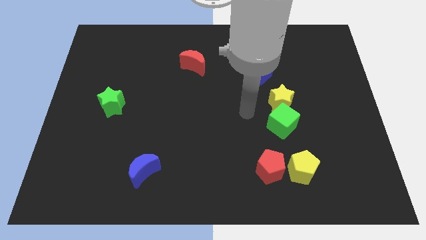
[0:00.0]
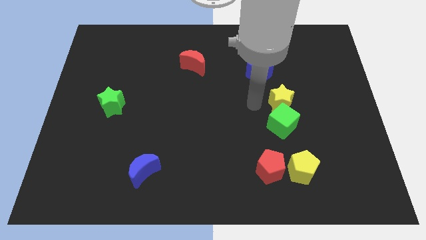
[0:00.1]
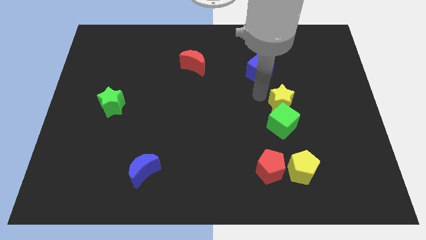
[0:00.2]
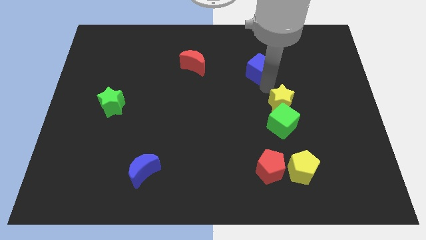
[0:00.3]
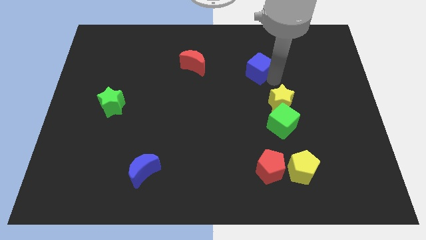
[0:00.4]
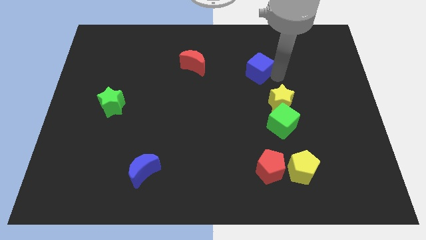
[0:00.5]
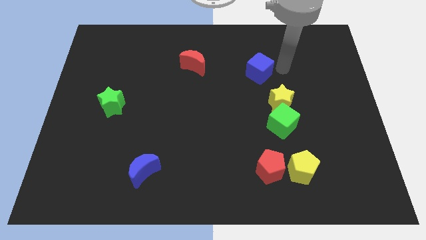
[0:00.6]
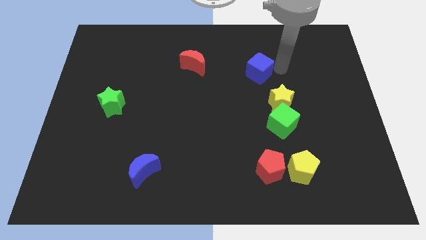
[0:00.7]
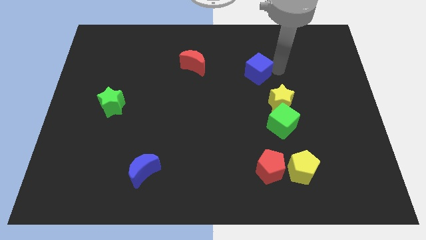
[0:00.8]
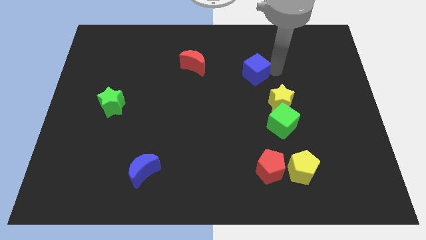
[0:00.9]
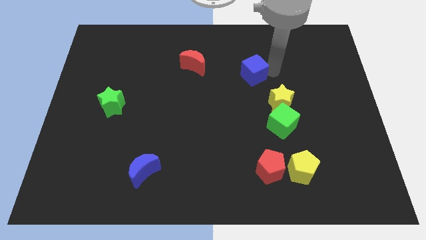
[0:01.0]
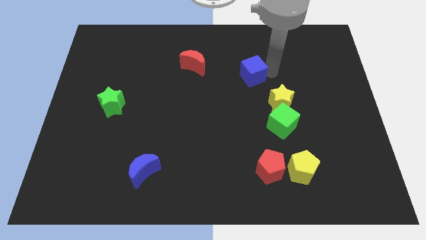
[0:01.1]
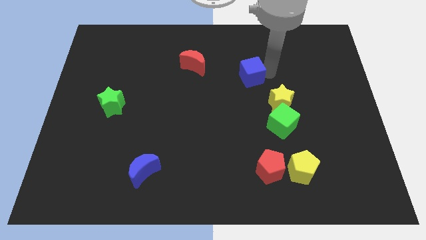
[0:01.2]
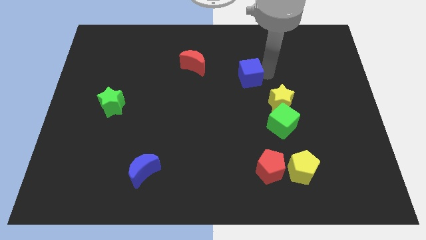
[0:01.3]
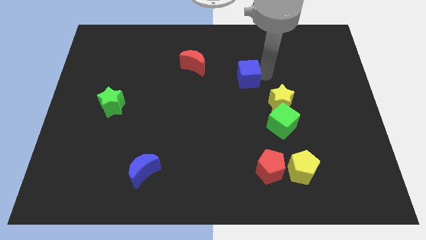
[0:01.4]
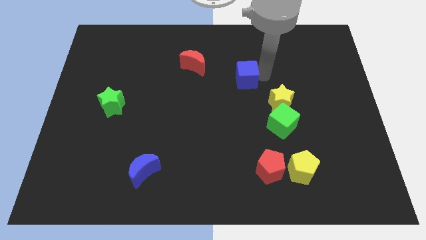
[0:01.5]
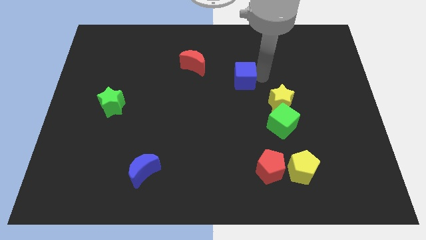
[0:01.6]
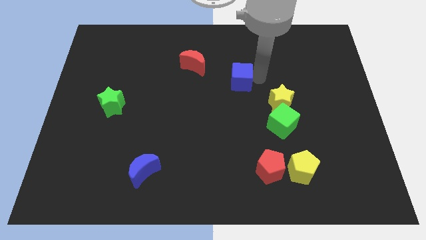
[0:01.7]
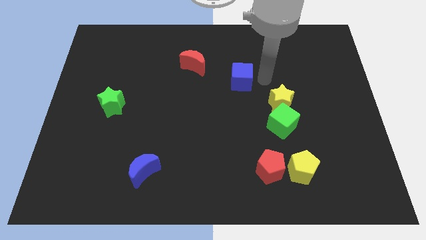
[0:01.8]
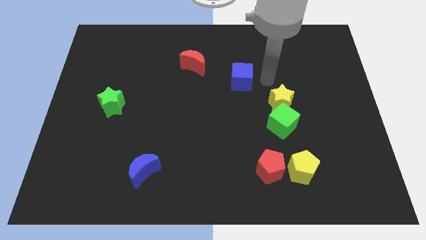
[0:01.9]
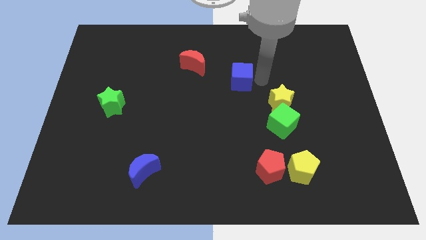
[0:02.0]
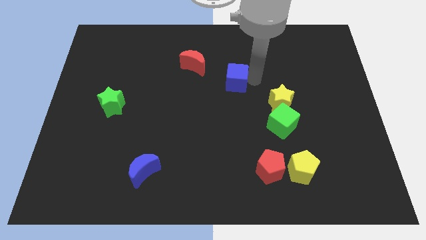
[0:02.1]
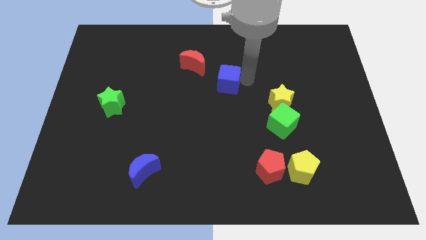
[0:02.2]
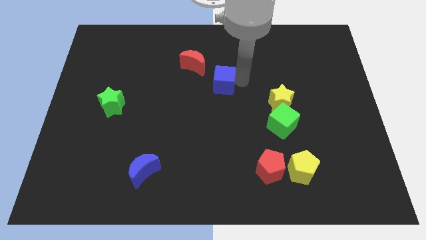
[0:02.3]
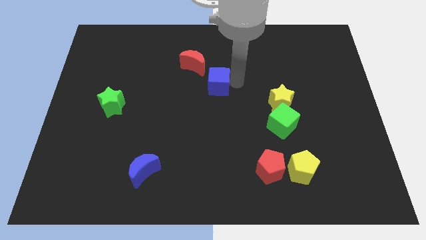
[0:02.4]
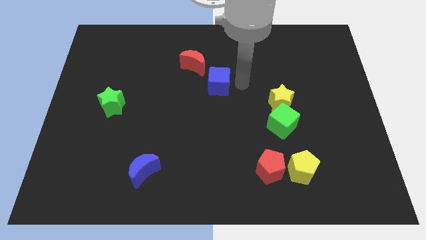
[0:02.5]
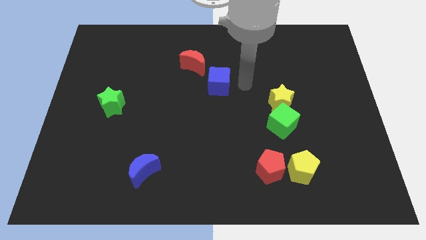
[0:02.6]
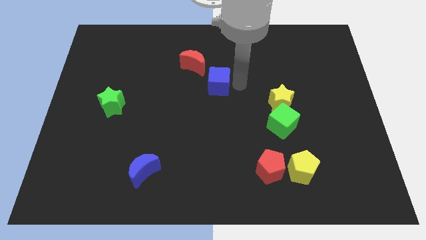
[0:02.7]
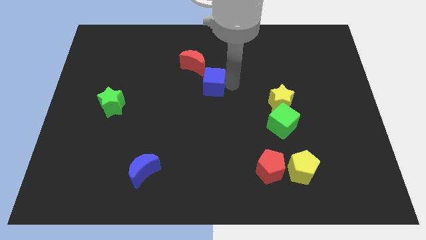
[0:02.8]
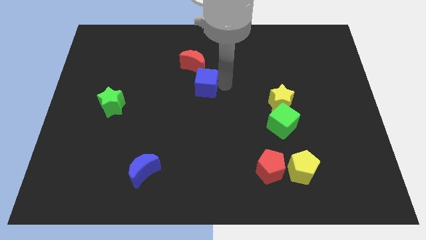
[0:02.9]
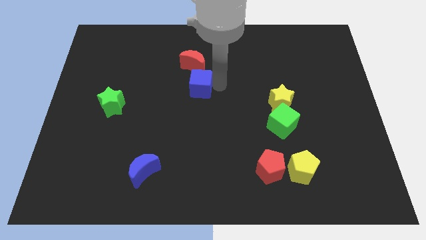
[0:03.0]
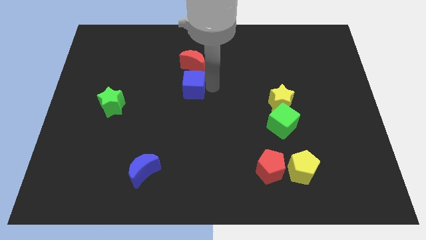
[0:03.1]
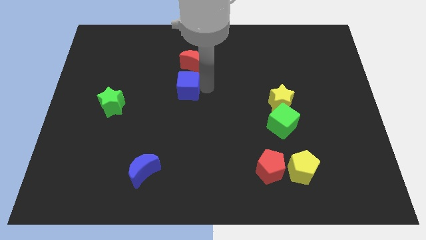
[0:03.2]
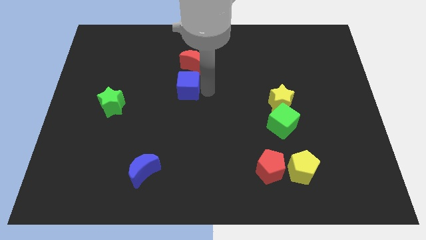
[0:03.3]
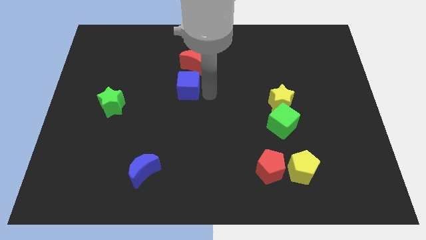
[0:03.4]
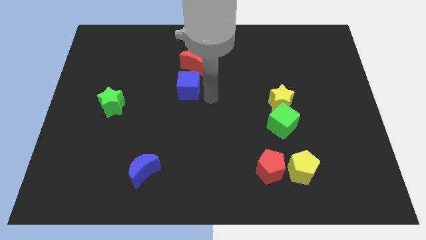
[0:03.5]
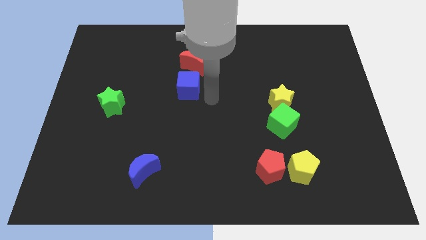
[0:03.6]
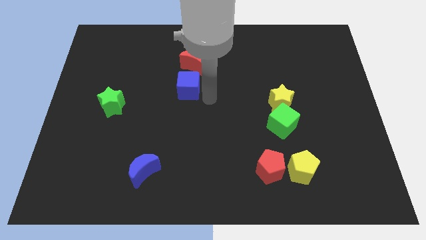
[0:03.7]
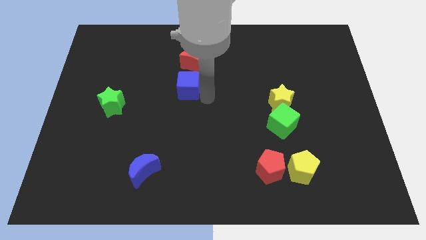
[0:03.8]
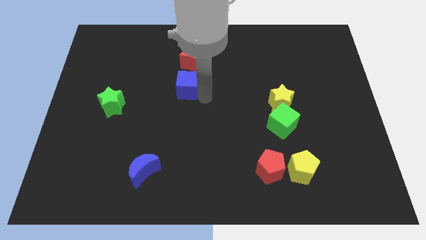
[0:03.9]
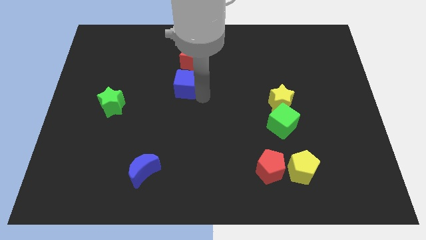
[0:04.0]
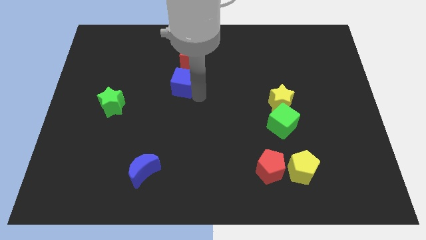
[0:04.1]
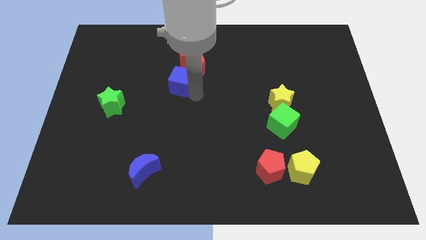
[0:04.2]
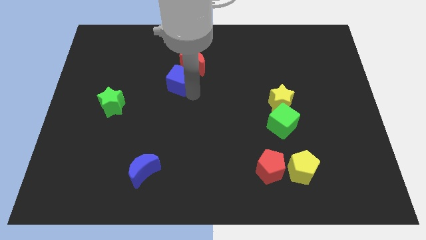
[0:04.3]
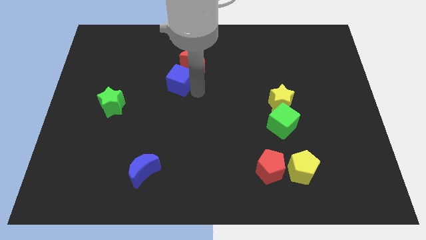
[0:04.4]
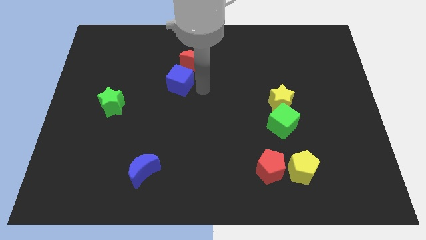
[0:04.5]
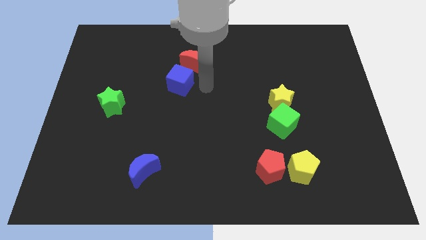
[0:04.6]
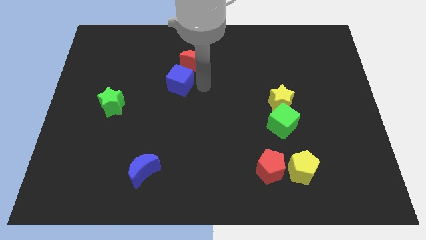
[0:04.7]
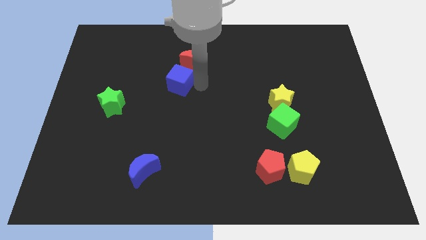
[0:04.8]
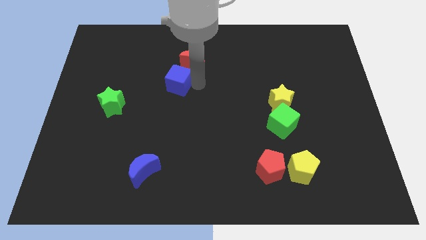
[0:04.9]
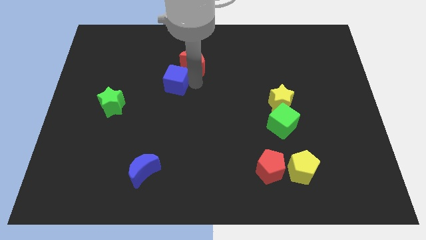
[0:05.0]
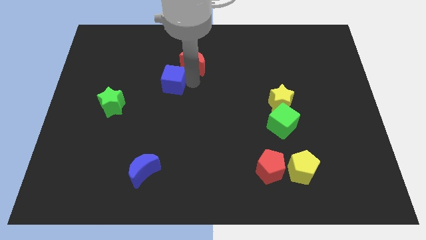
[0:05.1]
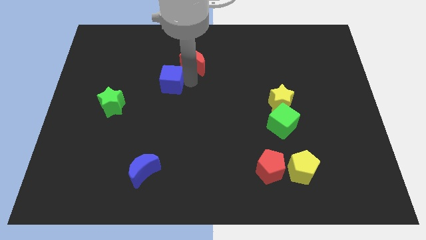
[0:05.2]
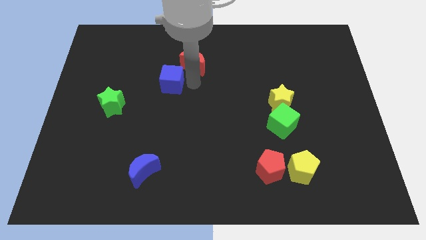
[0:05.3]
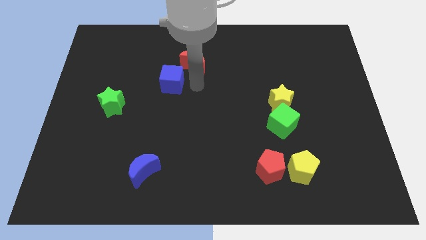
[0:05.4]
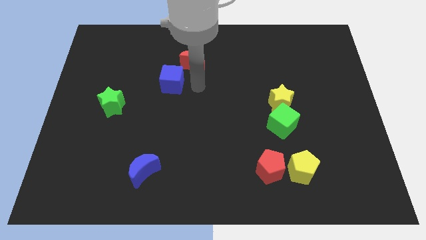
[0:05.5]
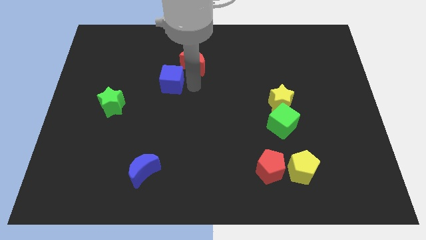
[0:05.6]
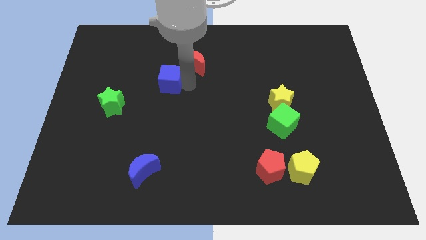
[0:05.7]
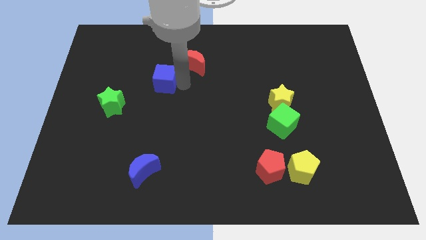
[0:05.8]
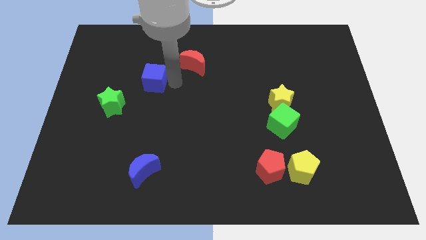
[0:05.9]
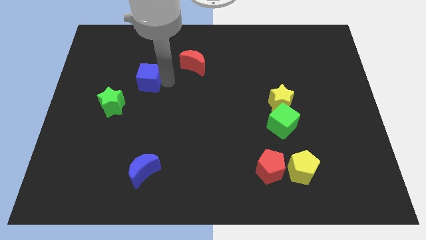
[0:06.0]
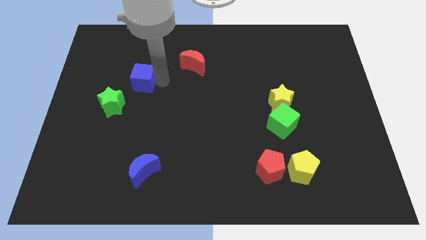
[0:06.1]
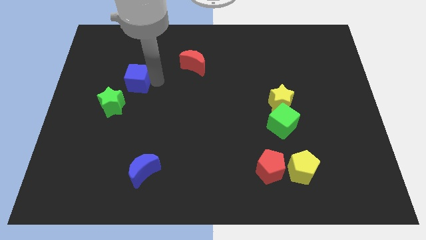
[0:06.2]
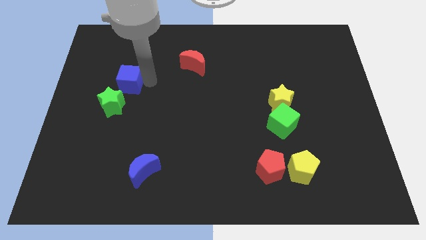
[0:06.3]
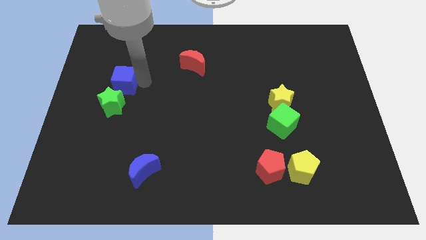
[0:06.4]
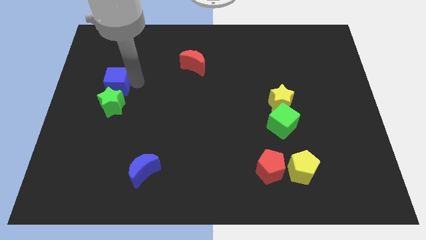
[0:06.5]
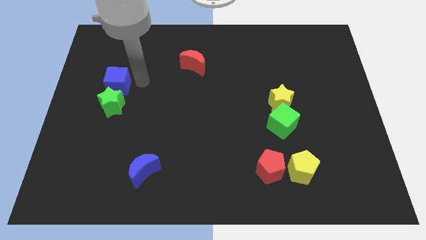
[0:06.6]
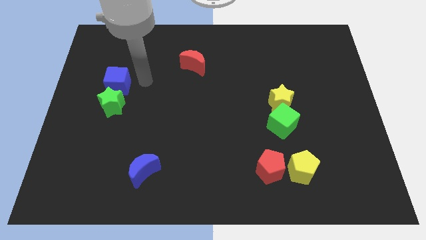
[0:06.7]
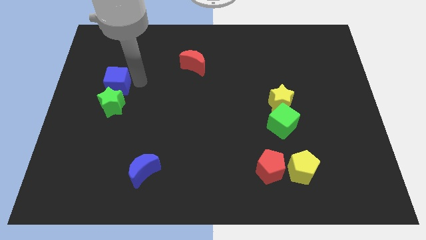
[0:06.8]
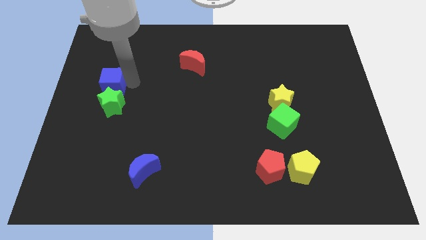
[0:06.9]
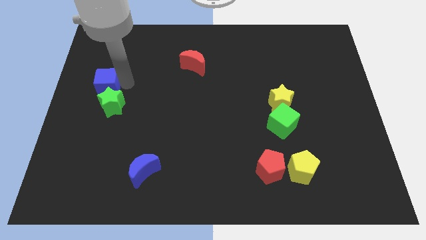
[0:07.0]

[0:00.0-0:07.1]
push the blue cube to the left side
